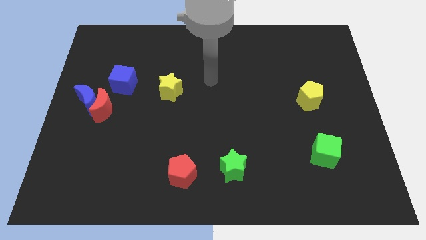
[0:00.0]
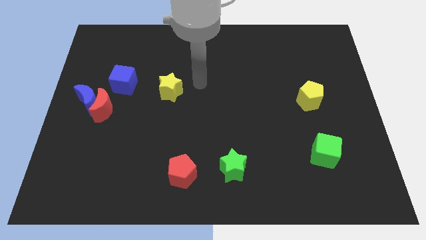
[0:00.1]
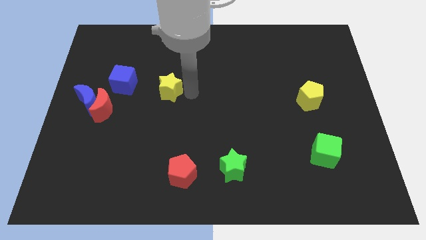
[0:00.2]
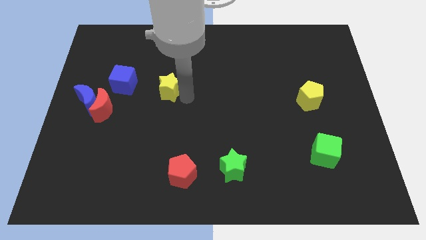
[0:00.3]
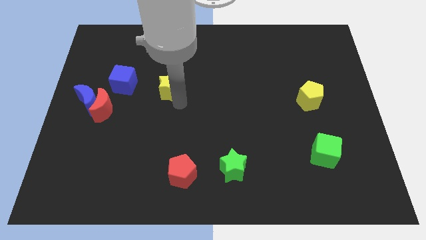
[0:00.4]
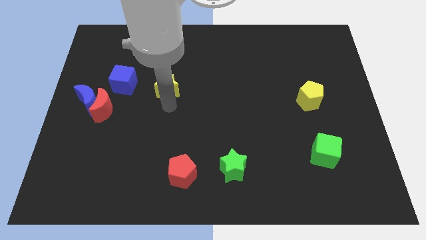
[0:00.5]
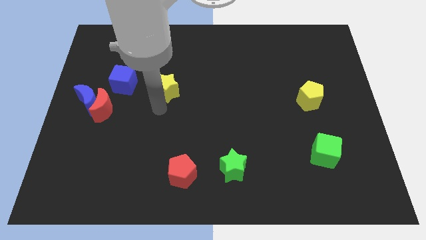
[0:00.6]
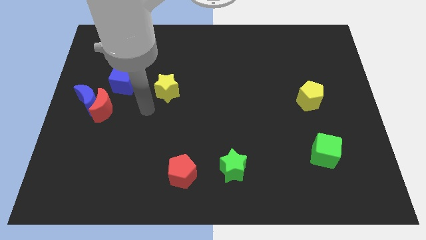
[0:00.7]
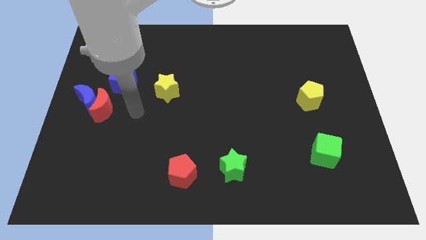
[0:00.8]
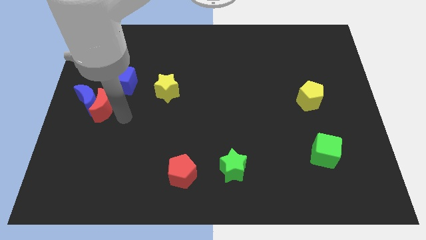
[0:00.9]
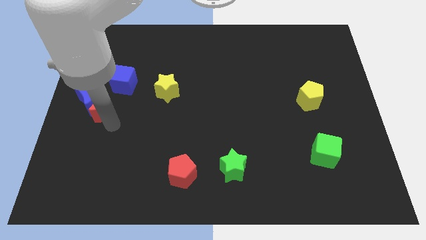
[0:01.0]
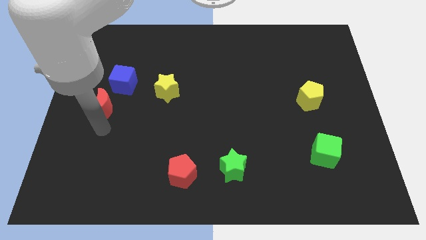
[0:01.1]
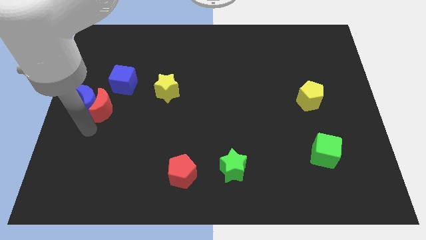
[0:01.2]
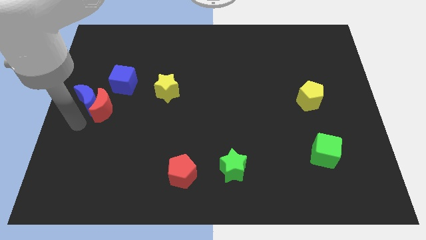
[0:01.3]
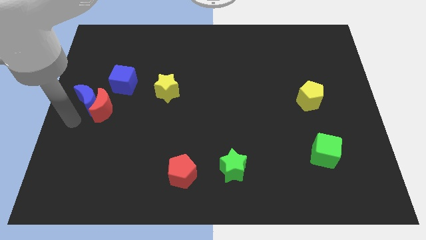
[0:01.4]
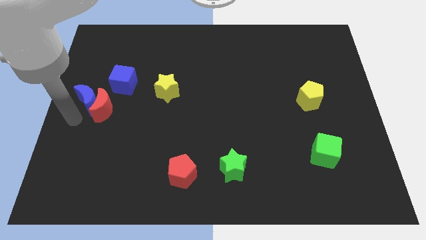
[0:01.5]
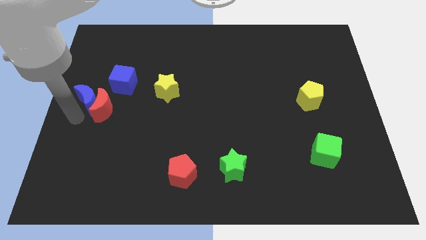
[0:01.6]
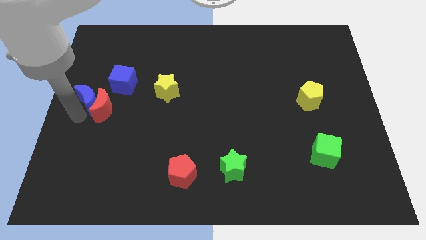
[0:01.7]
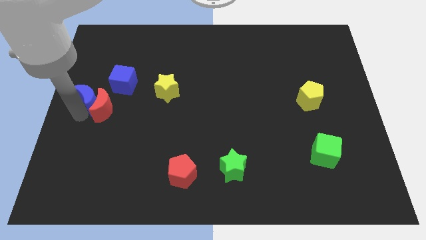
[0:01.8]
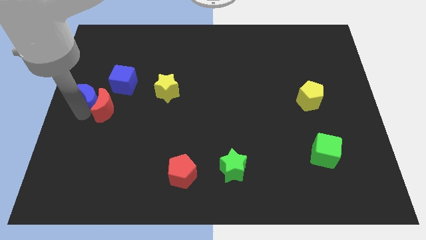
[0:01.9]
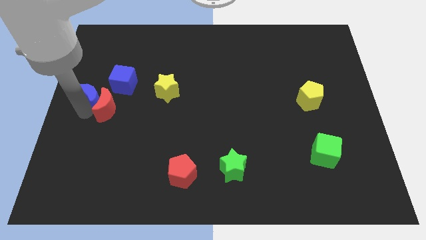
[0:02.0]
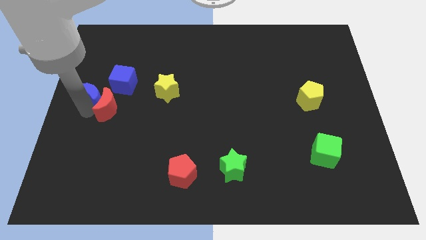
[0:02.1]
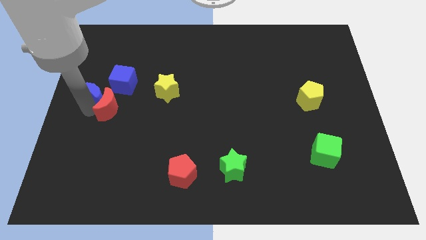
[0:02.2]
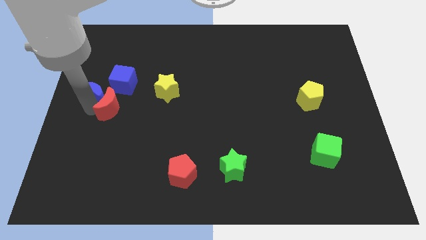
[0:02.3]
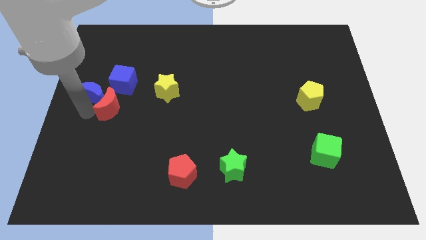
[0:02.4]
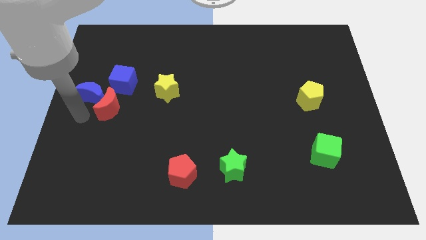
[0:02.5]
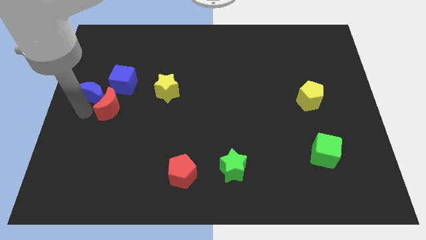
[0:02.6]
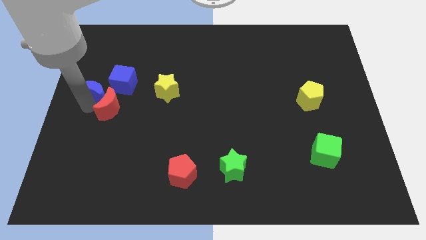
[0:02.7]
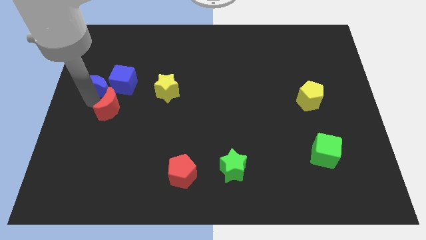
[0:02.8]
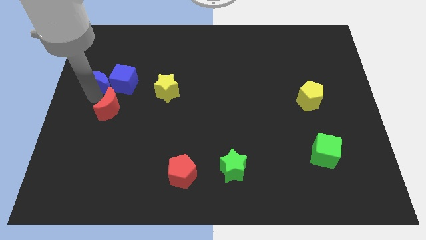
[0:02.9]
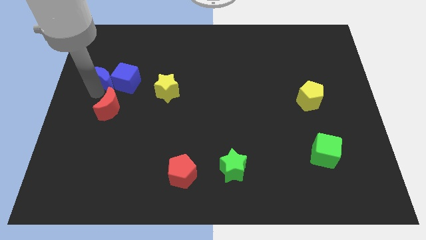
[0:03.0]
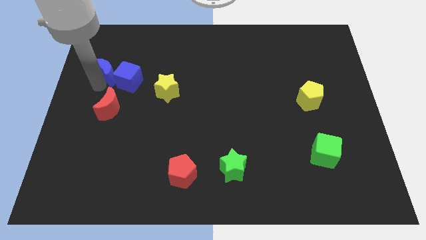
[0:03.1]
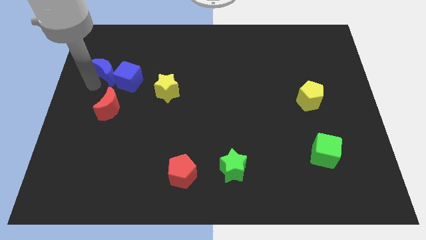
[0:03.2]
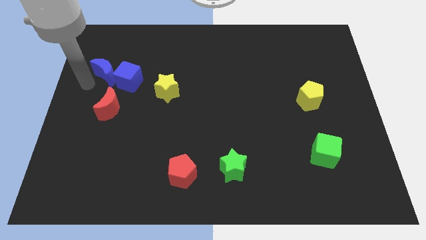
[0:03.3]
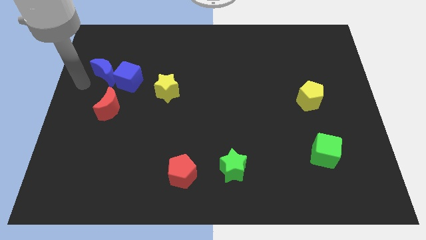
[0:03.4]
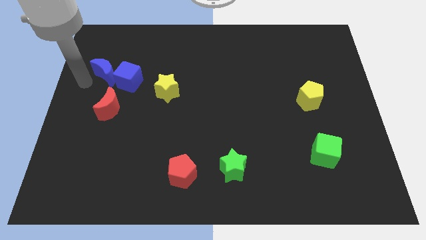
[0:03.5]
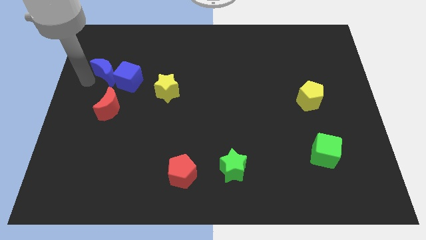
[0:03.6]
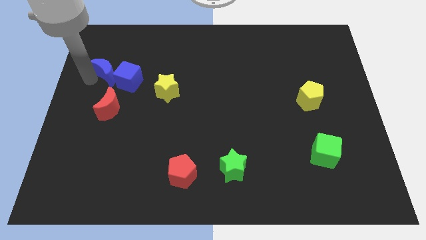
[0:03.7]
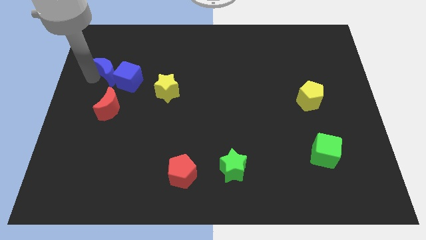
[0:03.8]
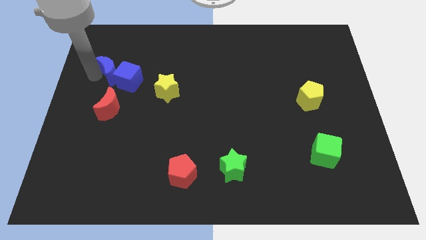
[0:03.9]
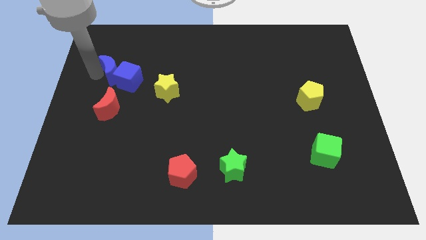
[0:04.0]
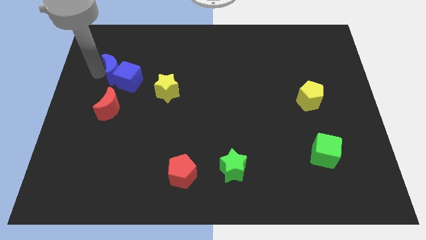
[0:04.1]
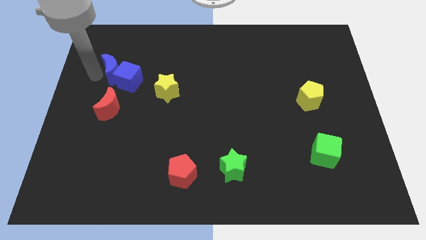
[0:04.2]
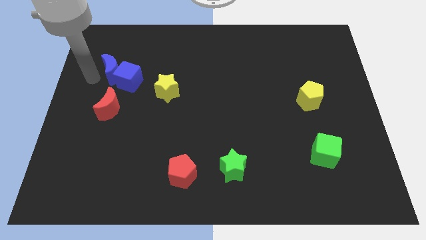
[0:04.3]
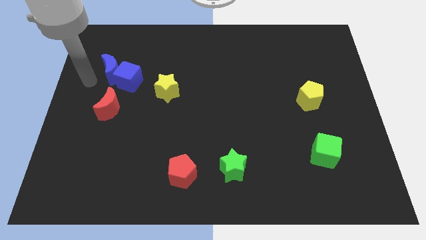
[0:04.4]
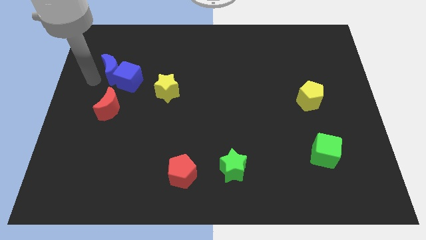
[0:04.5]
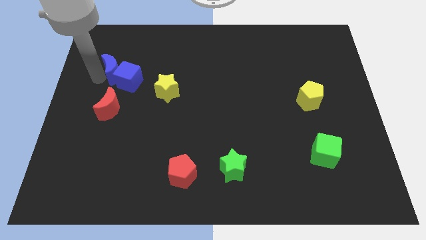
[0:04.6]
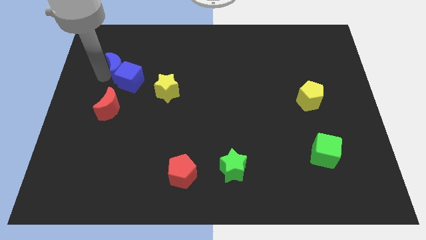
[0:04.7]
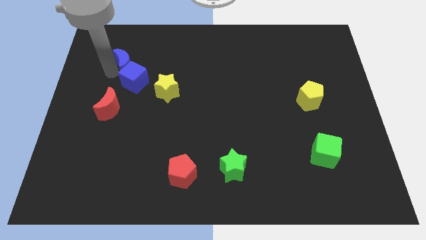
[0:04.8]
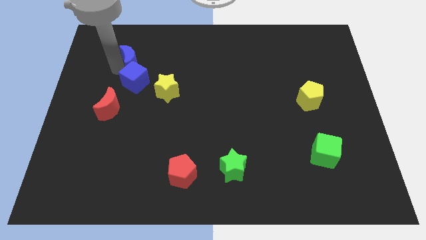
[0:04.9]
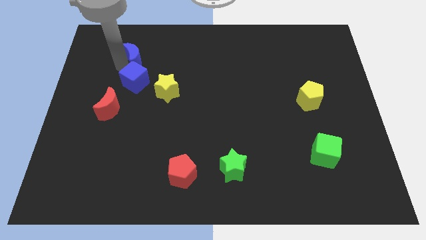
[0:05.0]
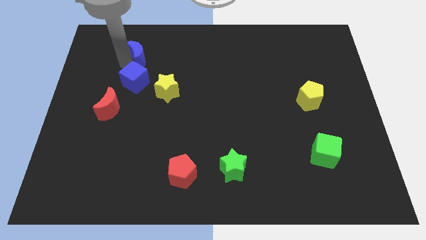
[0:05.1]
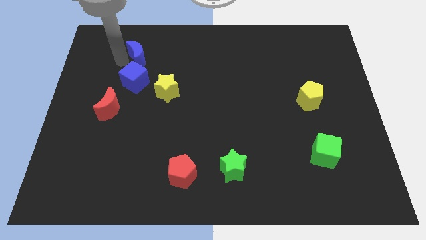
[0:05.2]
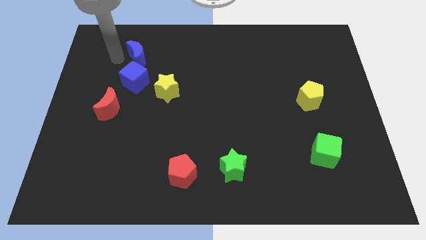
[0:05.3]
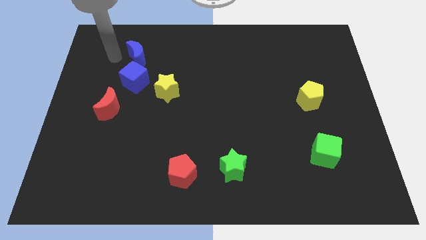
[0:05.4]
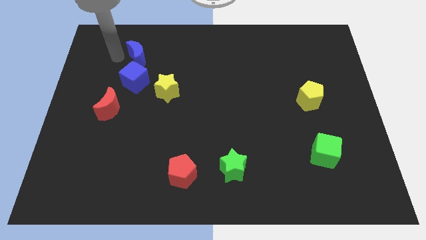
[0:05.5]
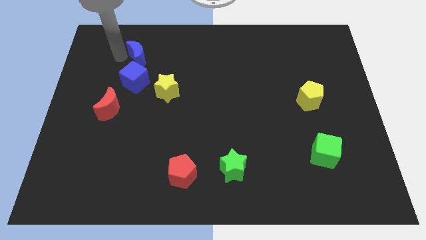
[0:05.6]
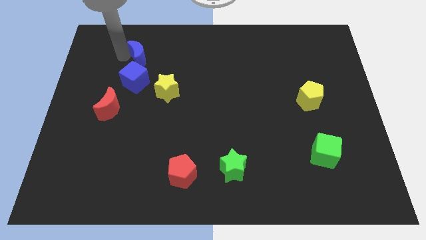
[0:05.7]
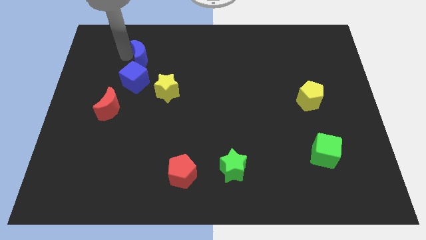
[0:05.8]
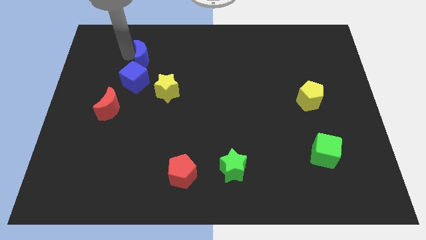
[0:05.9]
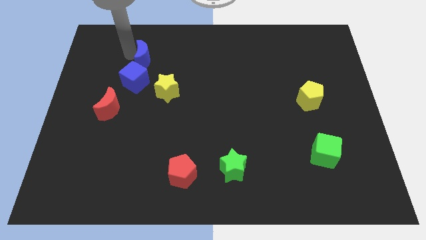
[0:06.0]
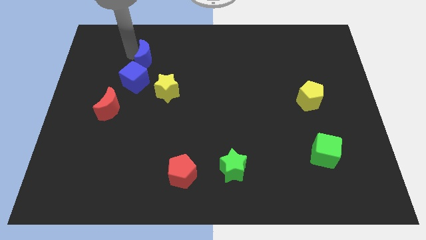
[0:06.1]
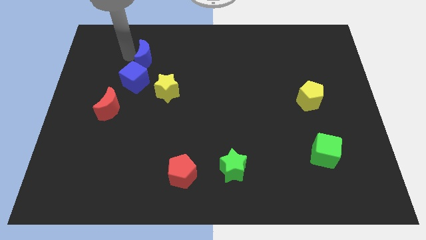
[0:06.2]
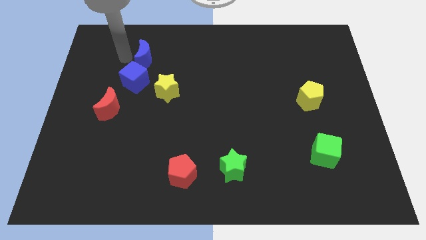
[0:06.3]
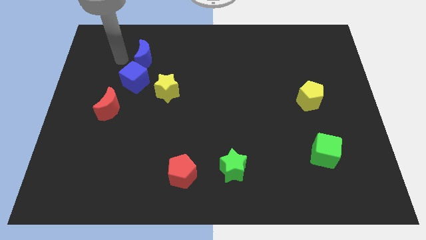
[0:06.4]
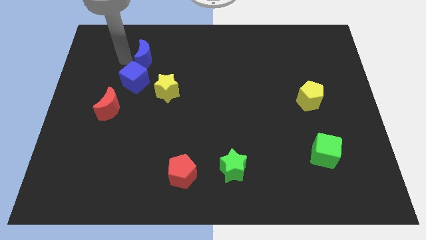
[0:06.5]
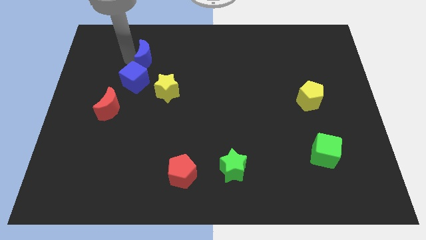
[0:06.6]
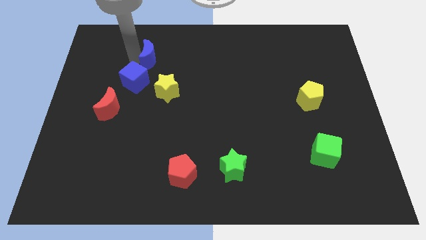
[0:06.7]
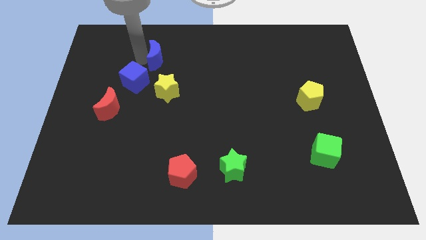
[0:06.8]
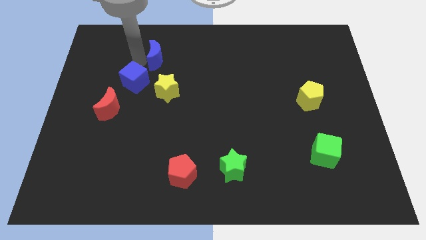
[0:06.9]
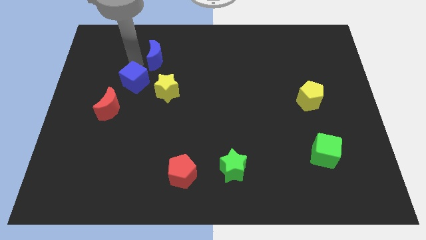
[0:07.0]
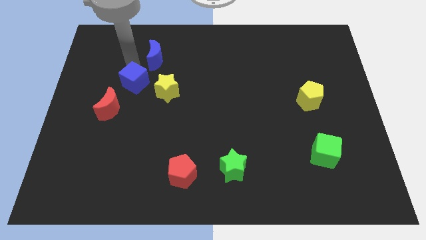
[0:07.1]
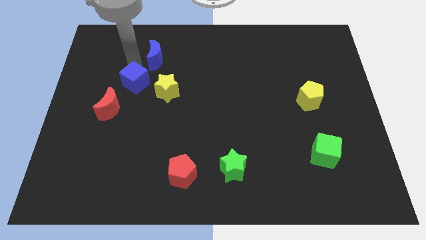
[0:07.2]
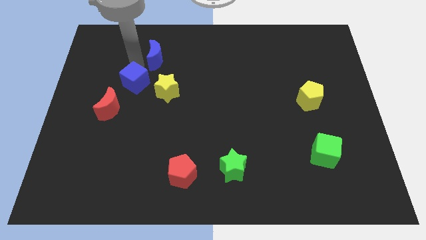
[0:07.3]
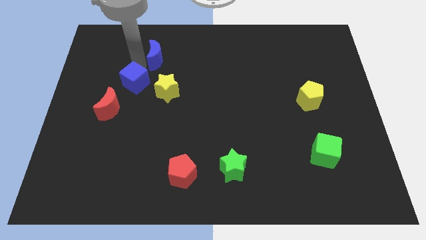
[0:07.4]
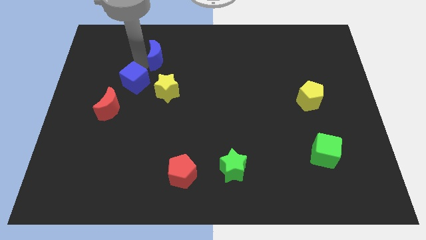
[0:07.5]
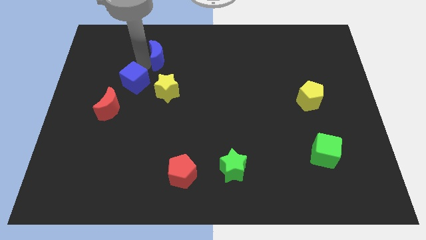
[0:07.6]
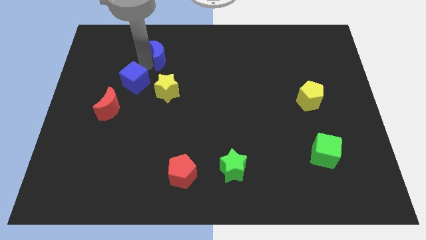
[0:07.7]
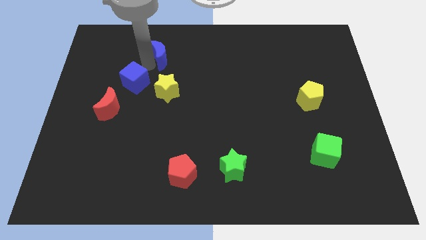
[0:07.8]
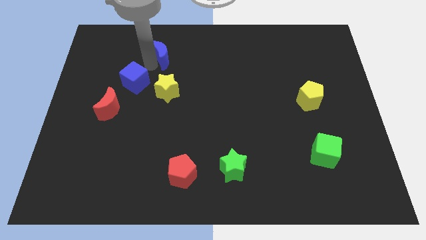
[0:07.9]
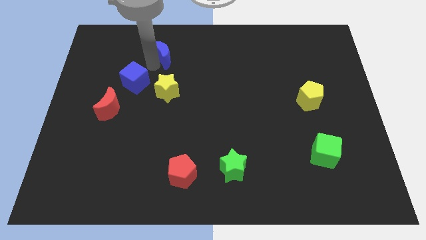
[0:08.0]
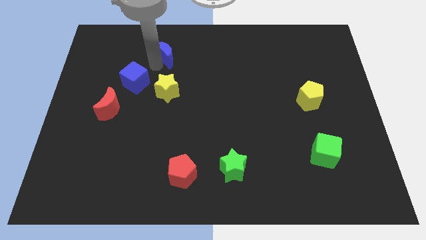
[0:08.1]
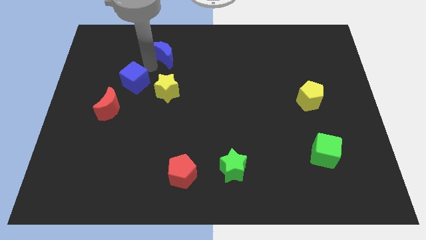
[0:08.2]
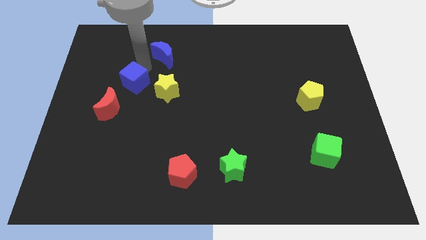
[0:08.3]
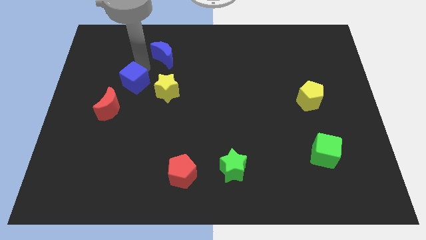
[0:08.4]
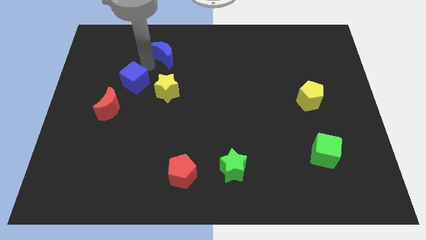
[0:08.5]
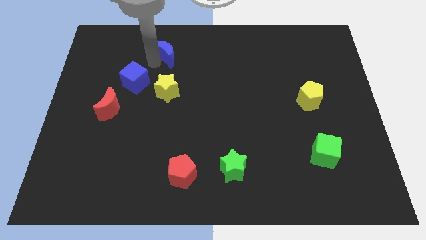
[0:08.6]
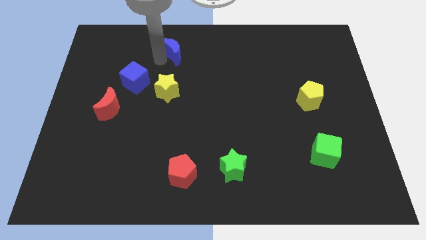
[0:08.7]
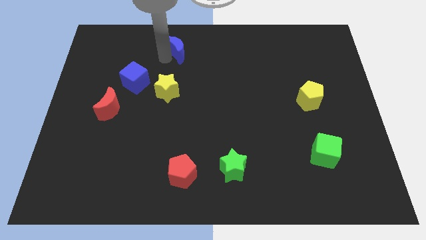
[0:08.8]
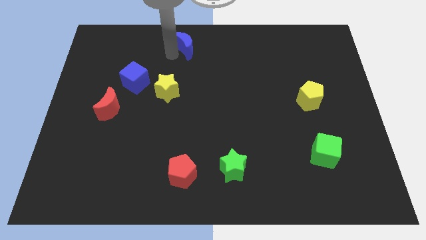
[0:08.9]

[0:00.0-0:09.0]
slide the blue moon to the top side
